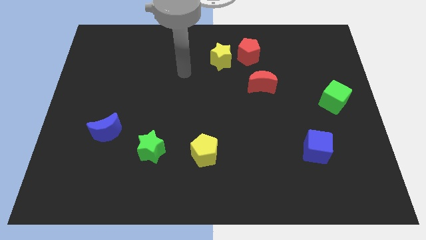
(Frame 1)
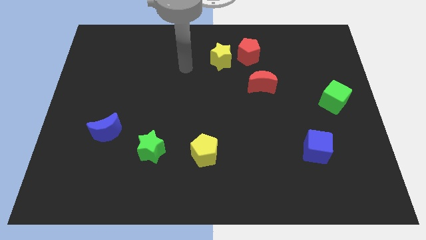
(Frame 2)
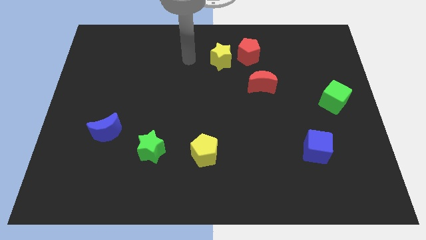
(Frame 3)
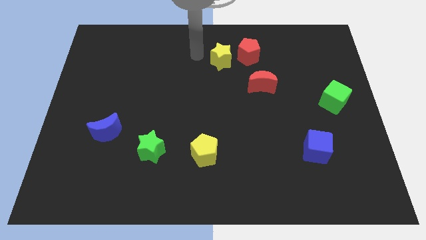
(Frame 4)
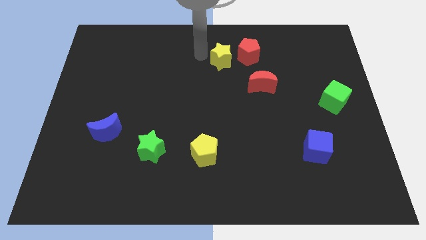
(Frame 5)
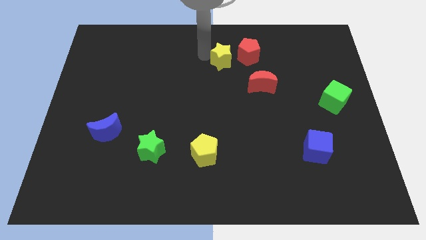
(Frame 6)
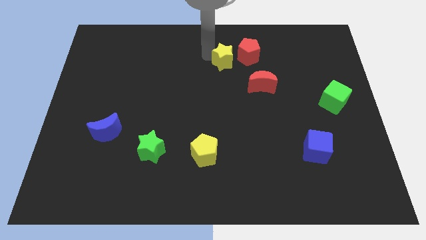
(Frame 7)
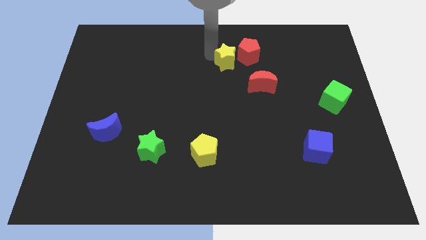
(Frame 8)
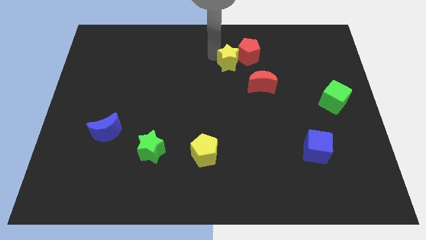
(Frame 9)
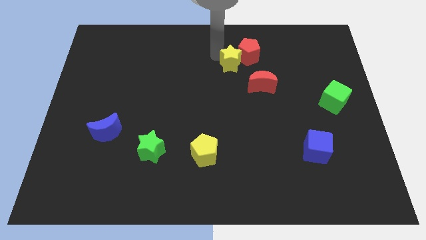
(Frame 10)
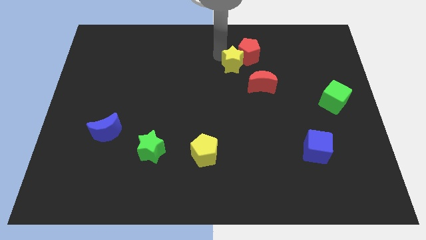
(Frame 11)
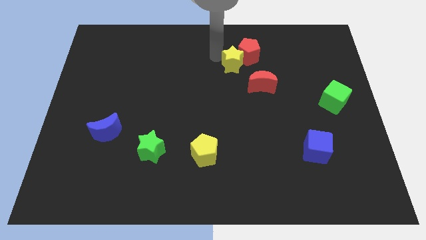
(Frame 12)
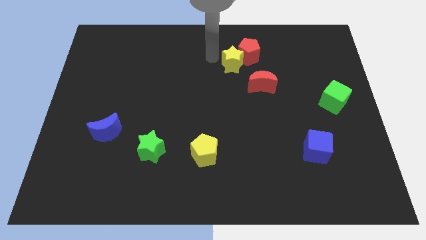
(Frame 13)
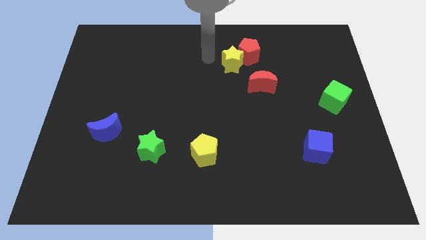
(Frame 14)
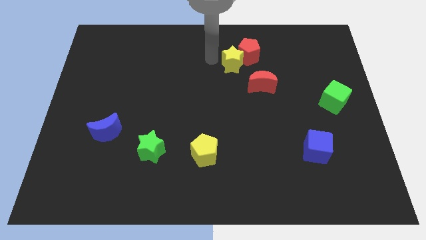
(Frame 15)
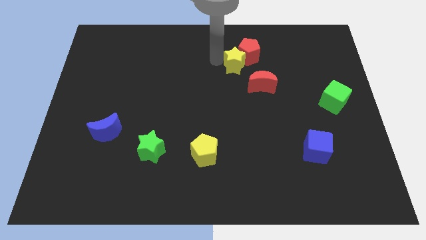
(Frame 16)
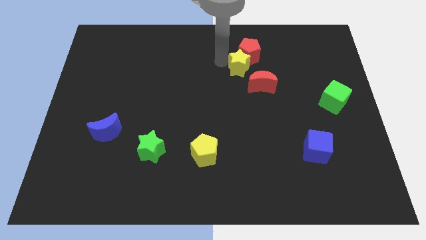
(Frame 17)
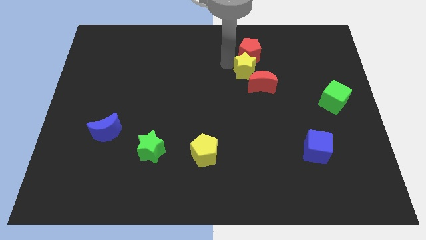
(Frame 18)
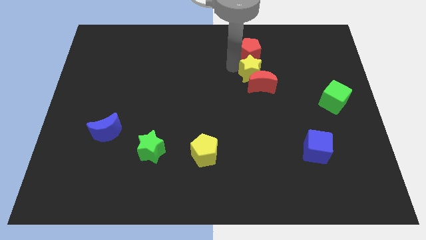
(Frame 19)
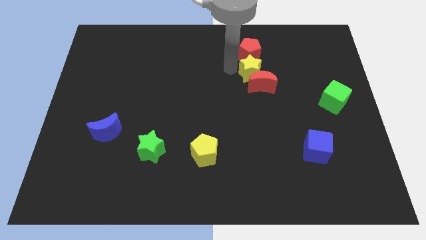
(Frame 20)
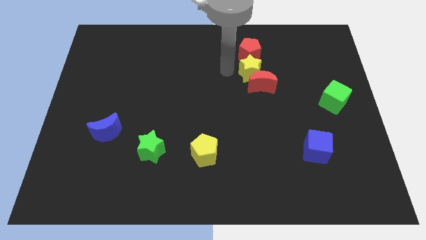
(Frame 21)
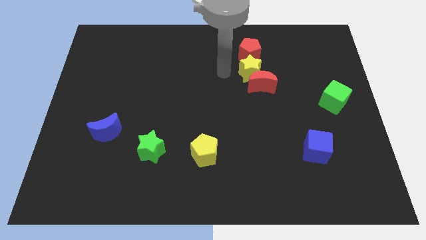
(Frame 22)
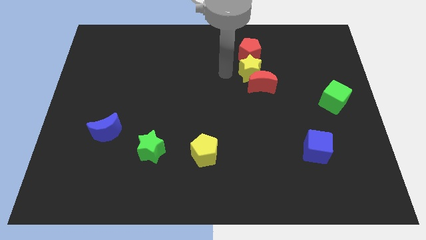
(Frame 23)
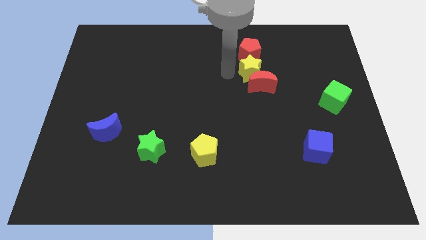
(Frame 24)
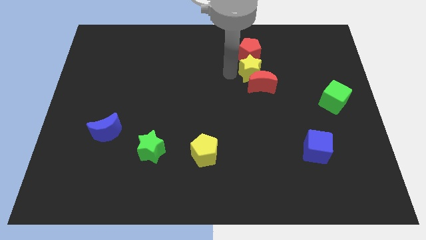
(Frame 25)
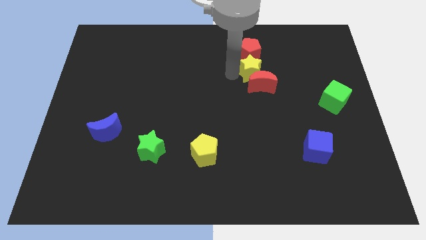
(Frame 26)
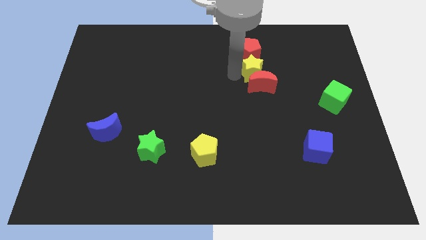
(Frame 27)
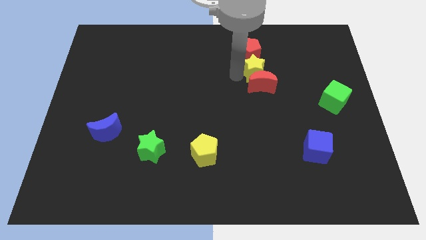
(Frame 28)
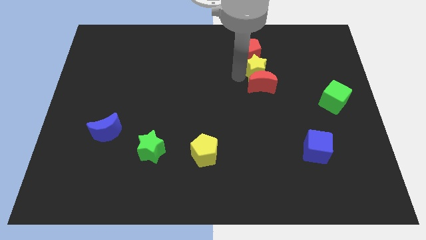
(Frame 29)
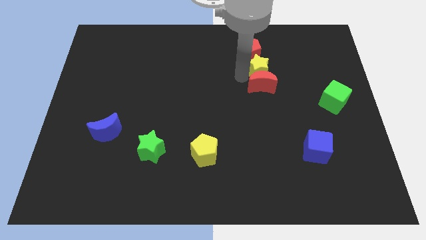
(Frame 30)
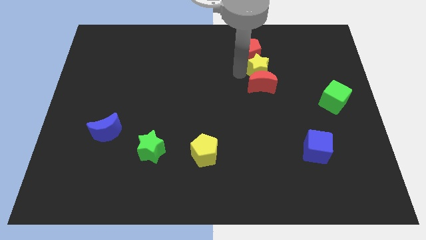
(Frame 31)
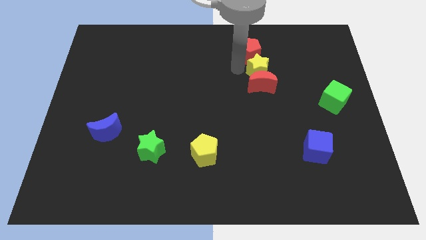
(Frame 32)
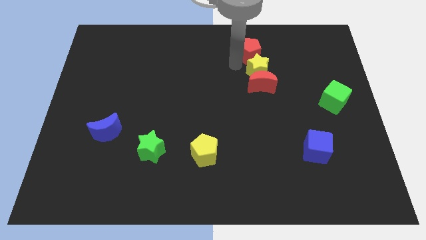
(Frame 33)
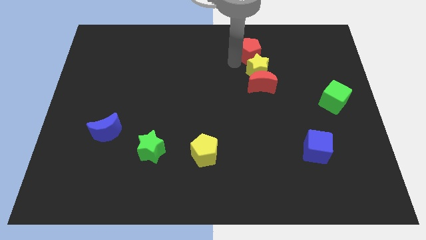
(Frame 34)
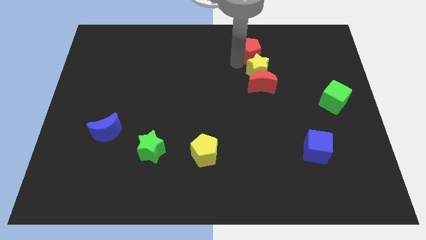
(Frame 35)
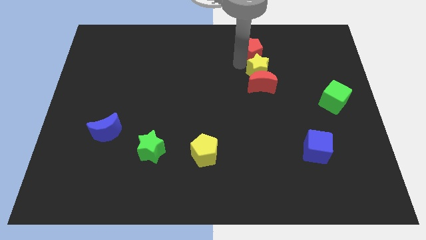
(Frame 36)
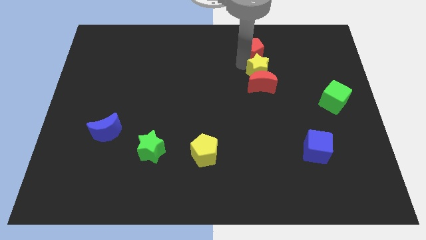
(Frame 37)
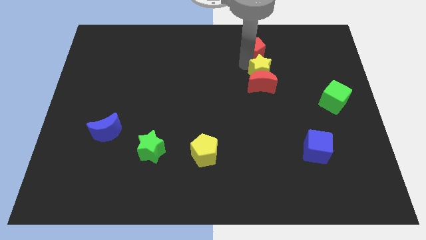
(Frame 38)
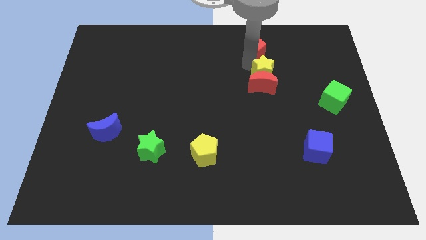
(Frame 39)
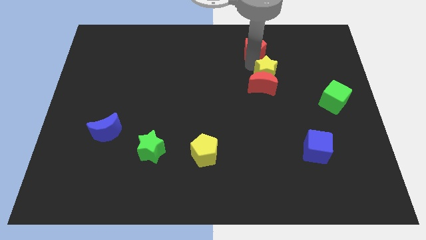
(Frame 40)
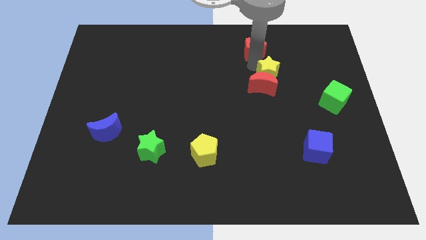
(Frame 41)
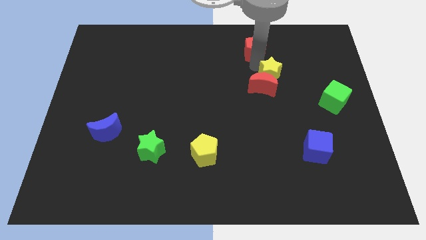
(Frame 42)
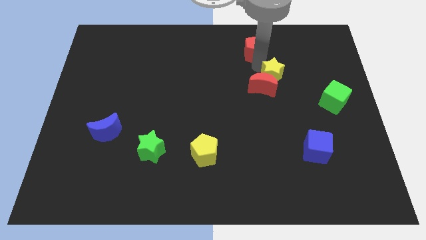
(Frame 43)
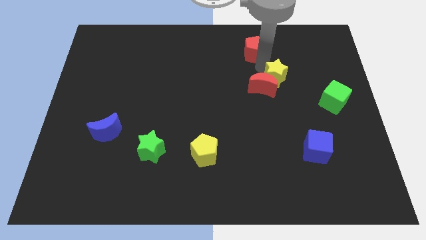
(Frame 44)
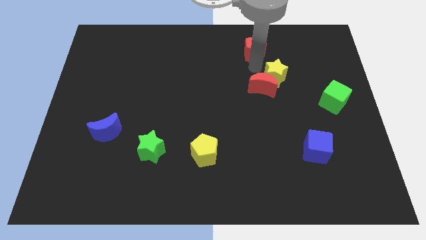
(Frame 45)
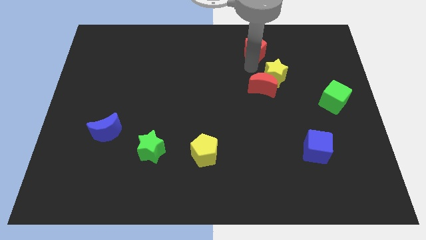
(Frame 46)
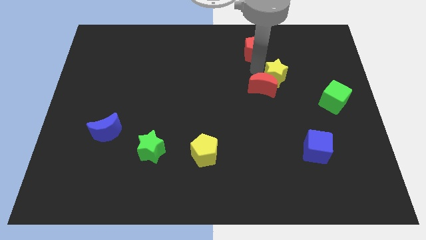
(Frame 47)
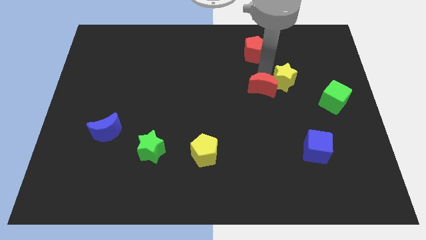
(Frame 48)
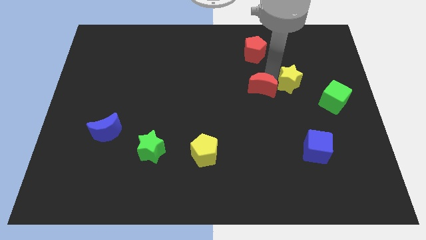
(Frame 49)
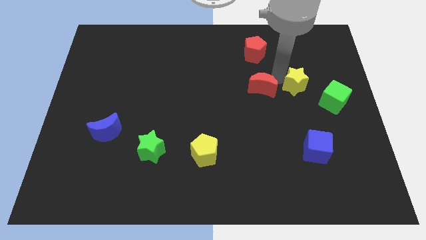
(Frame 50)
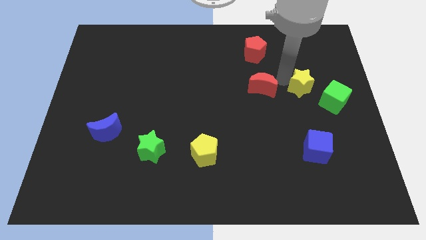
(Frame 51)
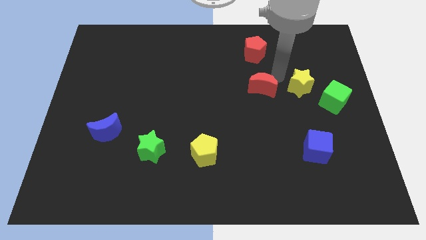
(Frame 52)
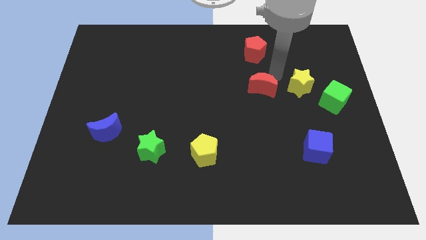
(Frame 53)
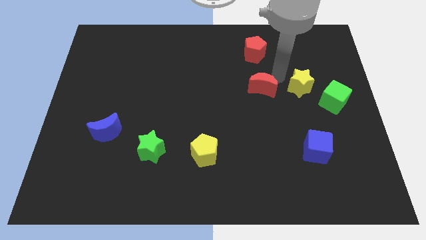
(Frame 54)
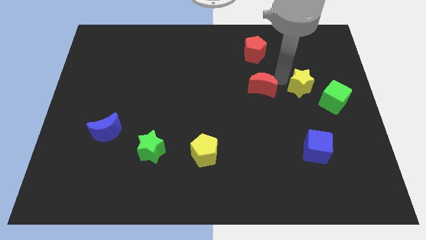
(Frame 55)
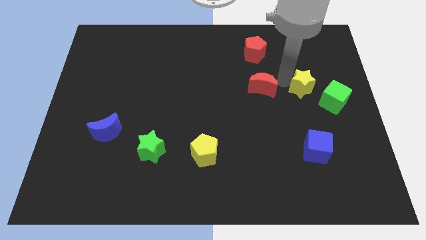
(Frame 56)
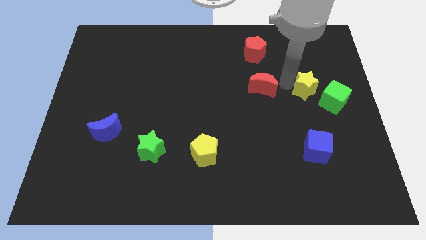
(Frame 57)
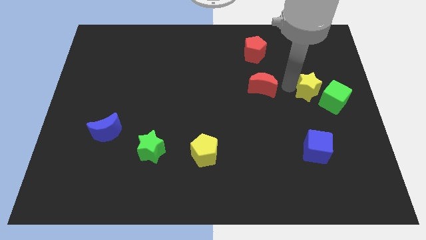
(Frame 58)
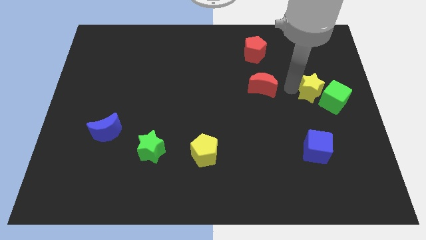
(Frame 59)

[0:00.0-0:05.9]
push the yellow star towards the green cube

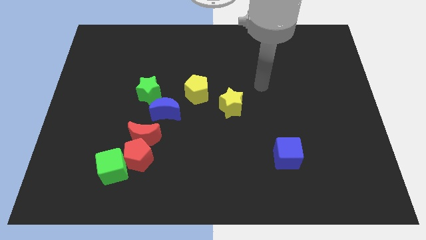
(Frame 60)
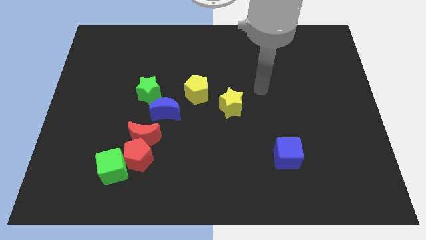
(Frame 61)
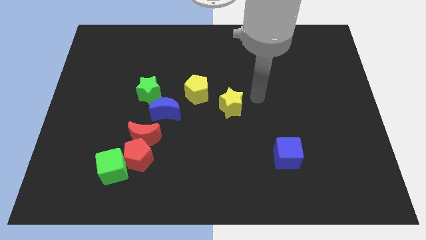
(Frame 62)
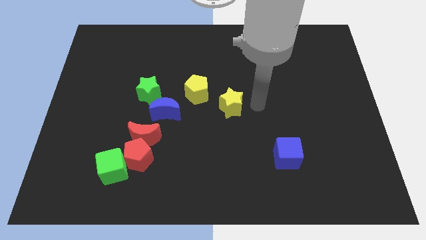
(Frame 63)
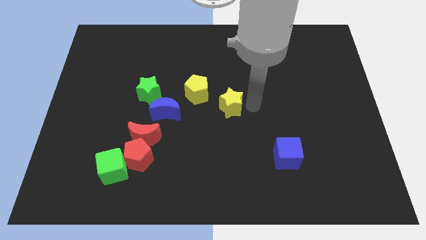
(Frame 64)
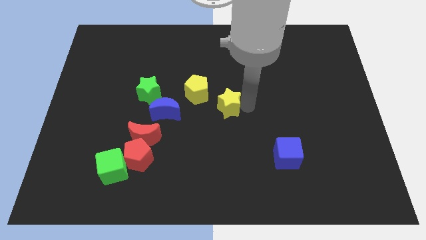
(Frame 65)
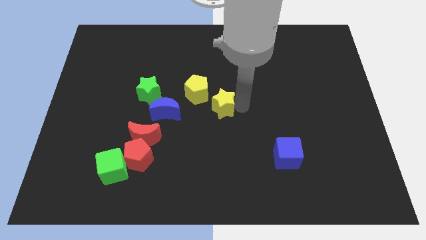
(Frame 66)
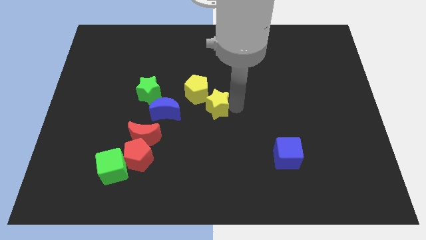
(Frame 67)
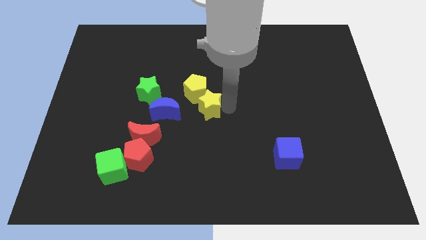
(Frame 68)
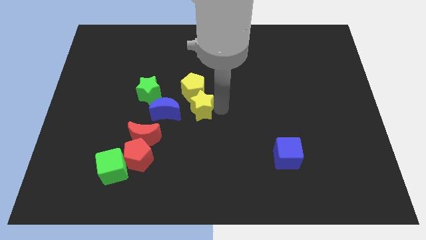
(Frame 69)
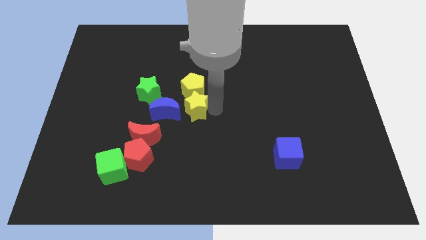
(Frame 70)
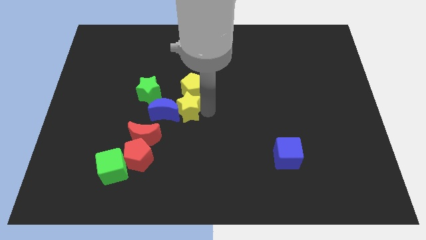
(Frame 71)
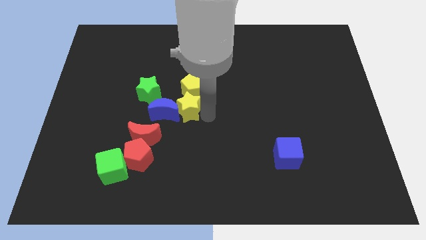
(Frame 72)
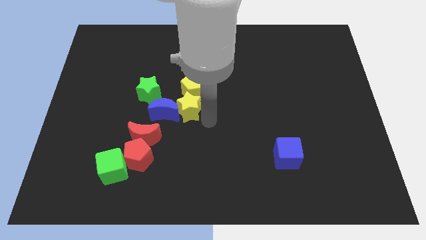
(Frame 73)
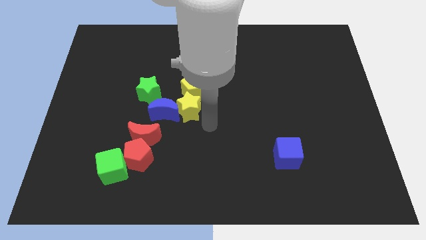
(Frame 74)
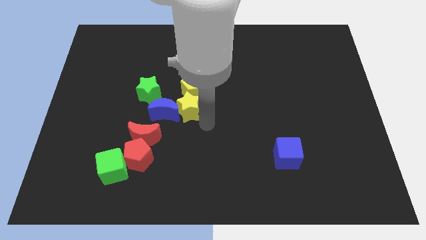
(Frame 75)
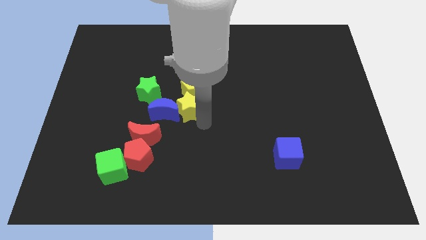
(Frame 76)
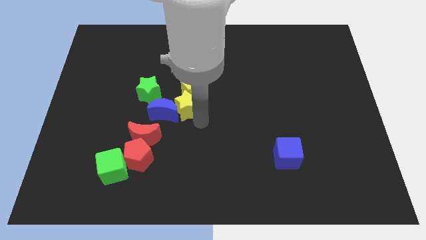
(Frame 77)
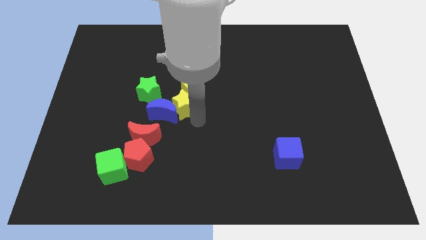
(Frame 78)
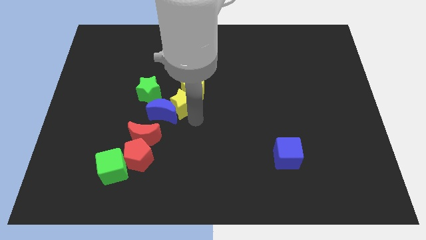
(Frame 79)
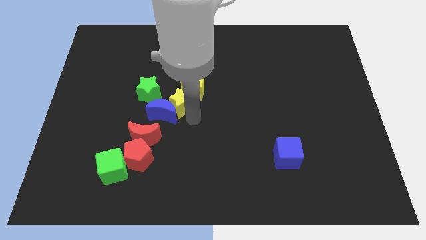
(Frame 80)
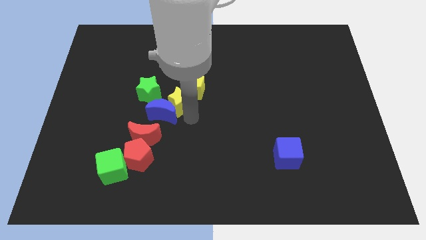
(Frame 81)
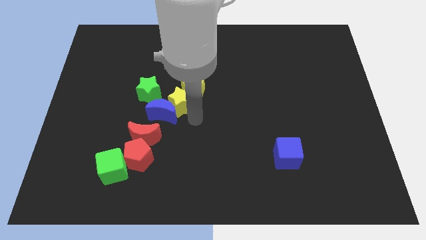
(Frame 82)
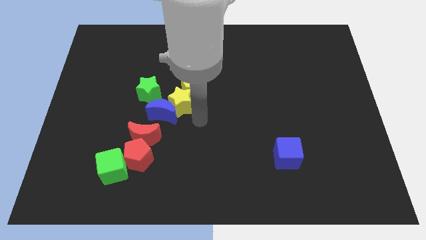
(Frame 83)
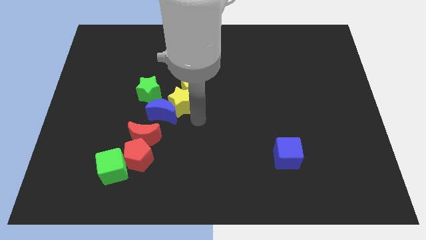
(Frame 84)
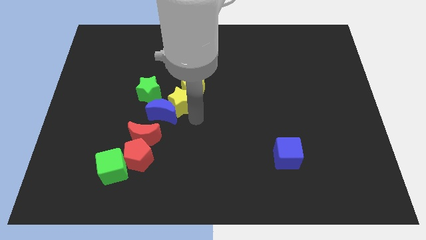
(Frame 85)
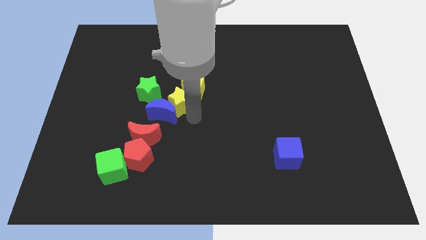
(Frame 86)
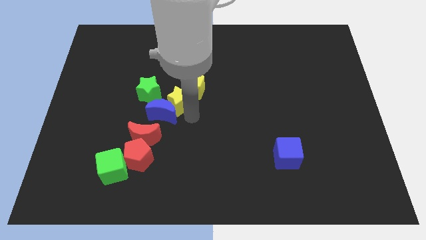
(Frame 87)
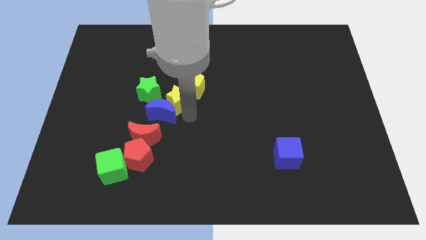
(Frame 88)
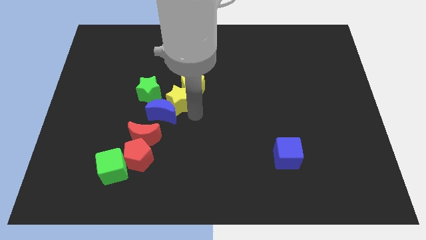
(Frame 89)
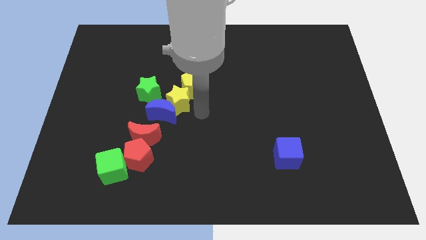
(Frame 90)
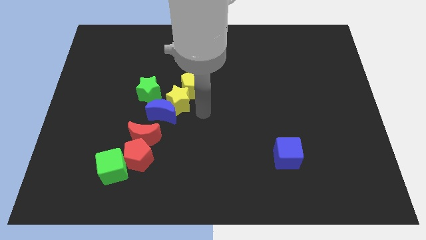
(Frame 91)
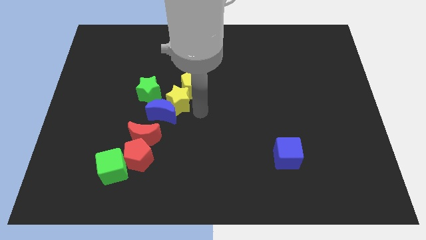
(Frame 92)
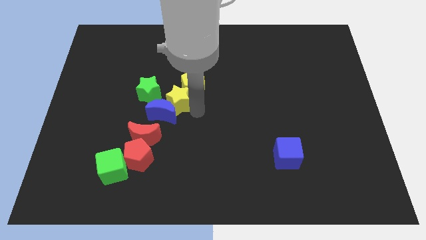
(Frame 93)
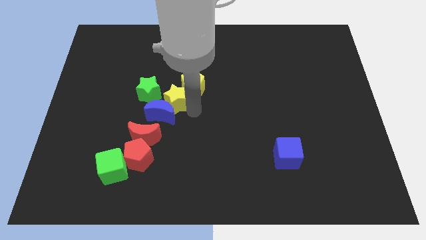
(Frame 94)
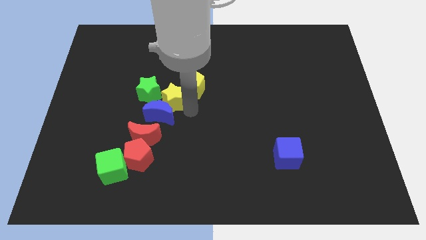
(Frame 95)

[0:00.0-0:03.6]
move the yellow star close to the green star
